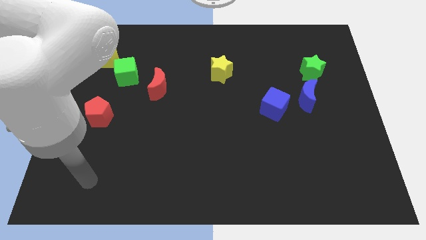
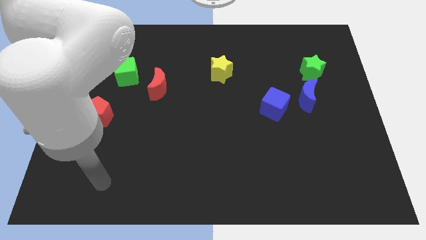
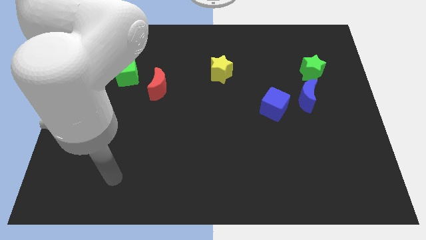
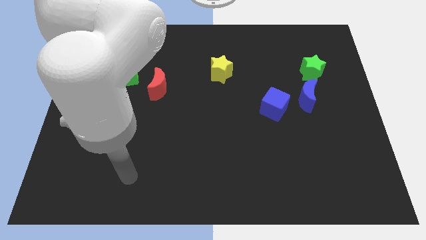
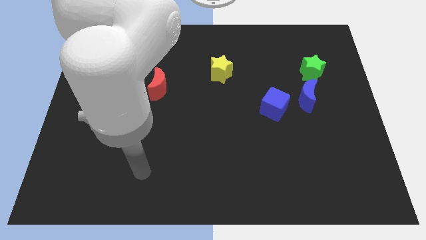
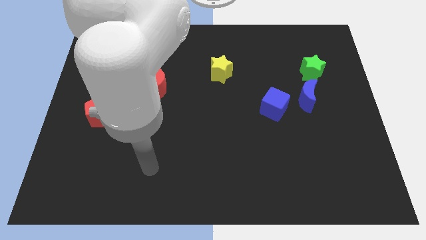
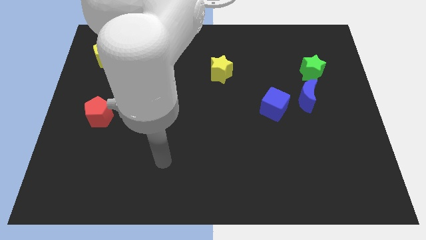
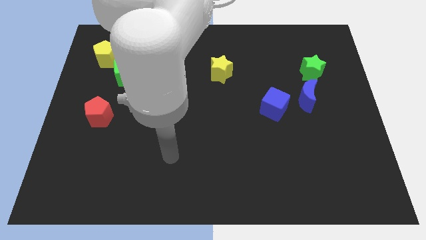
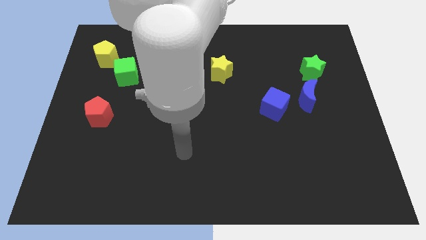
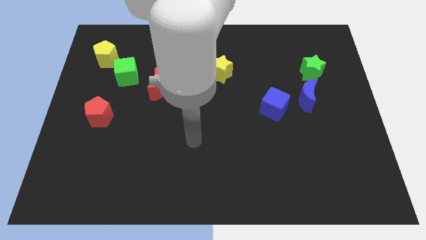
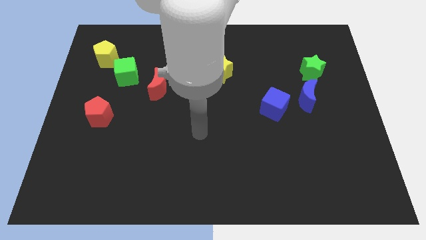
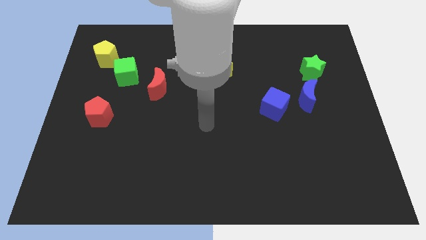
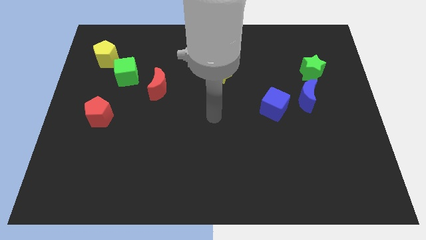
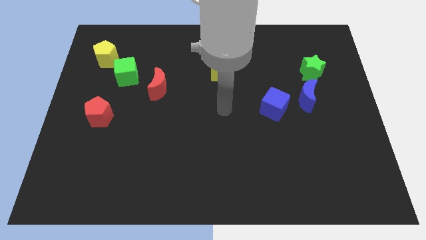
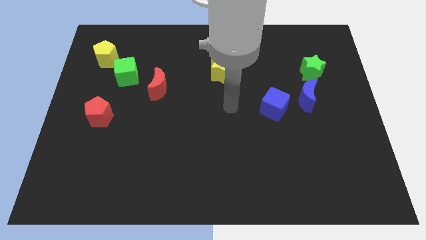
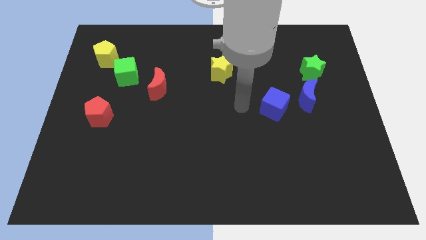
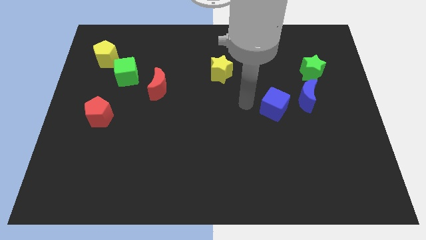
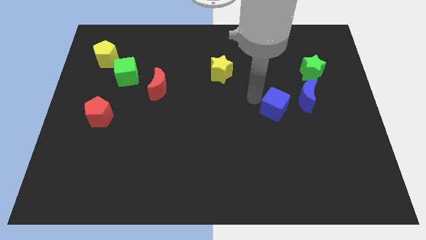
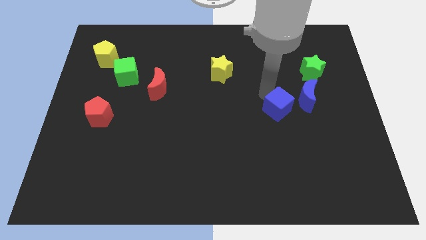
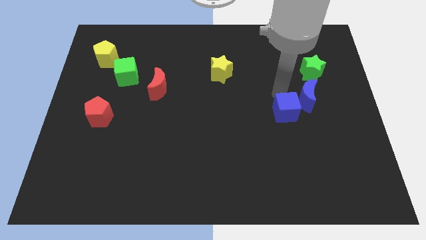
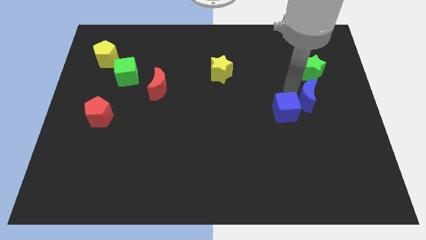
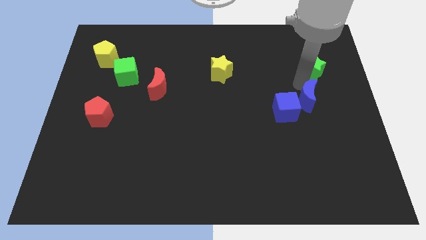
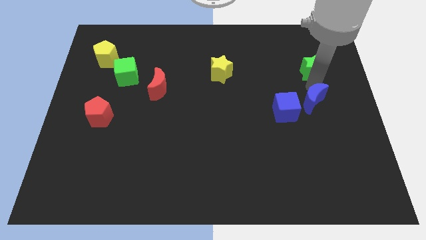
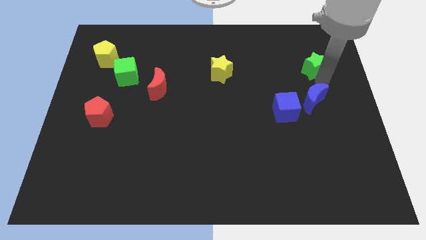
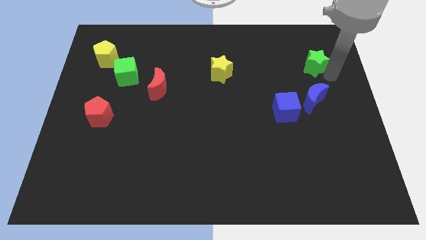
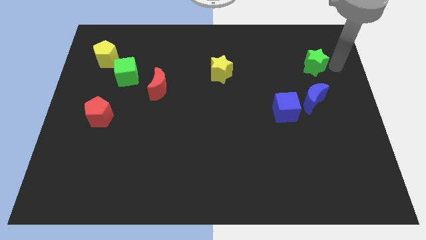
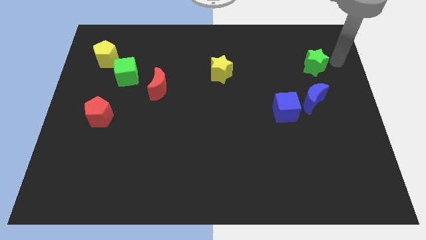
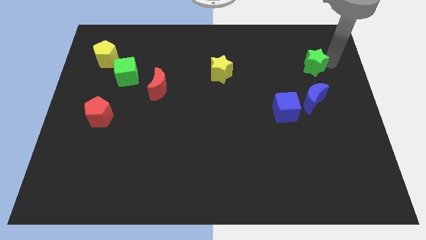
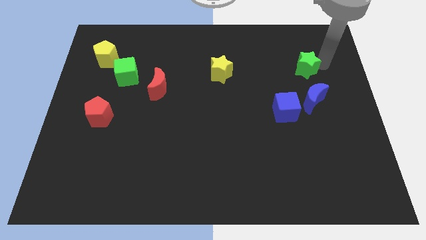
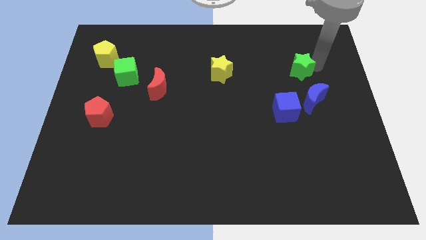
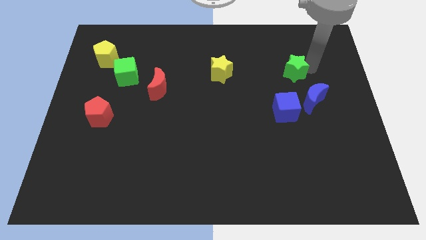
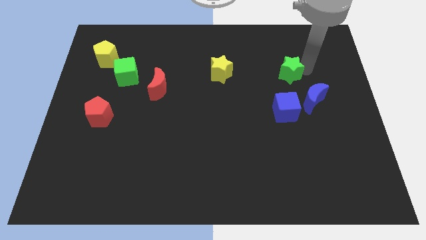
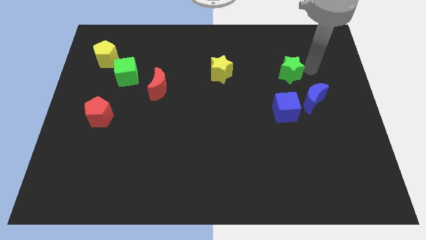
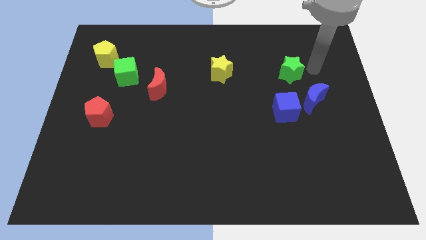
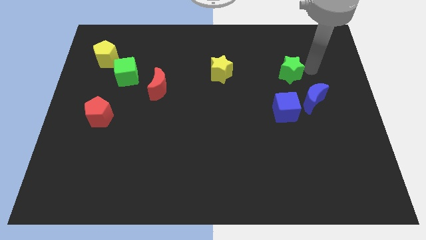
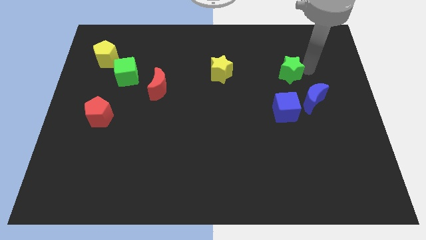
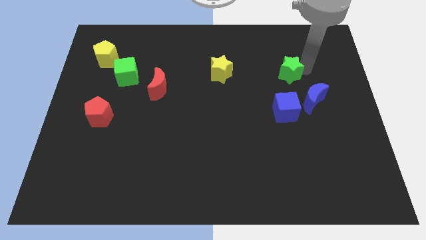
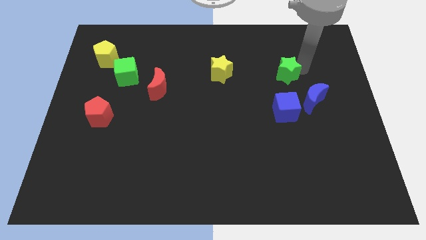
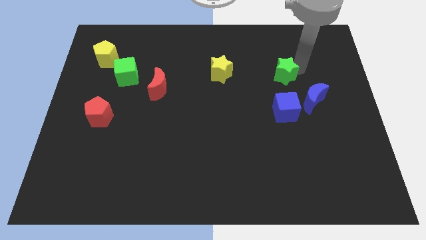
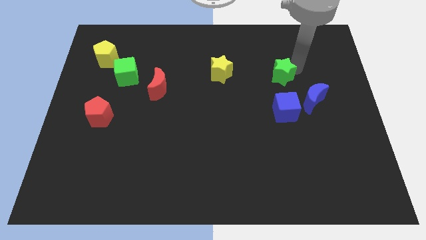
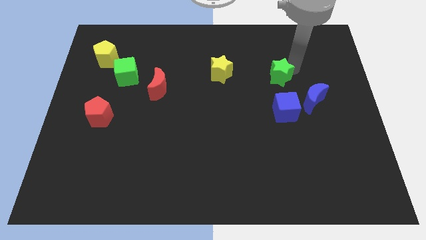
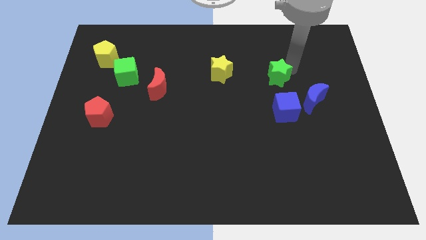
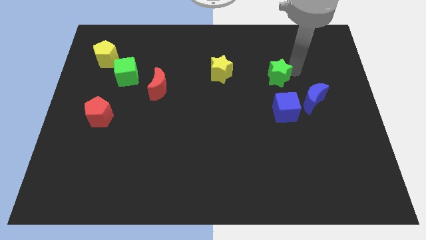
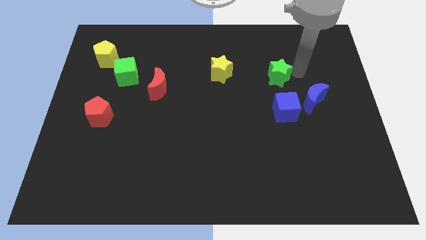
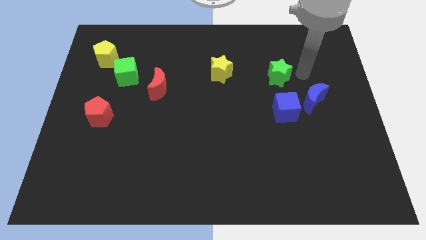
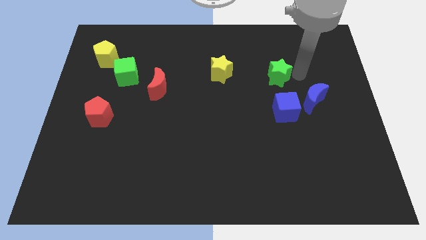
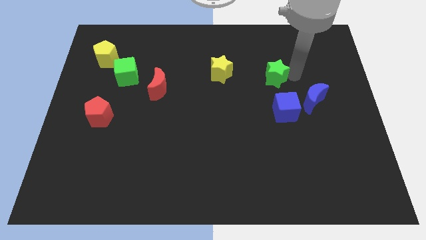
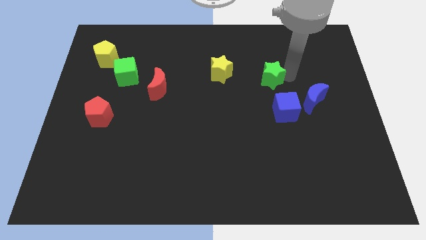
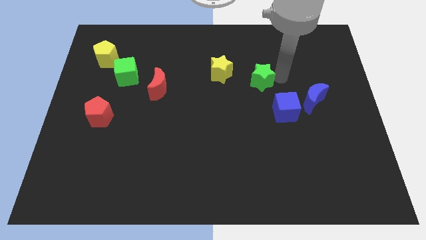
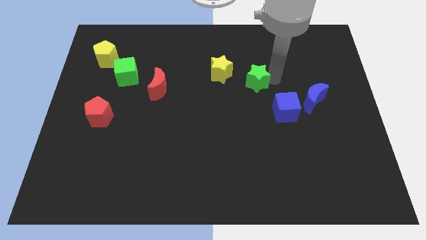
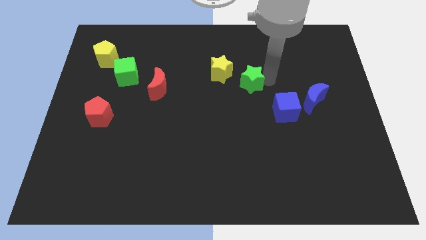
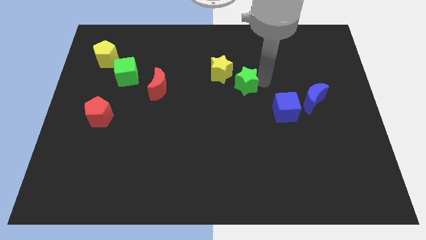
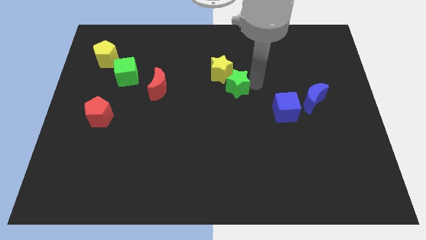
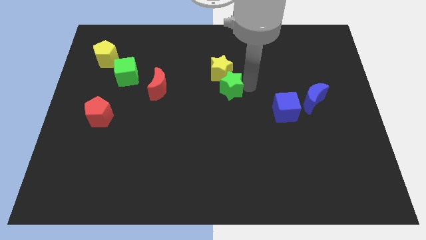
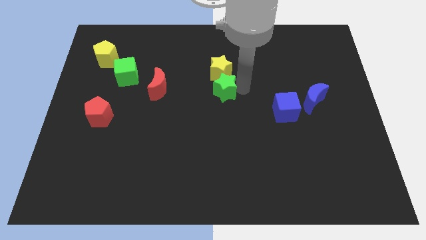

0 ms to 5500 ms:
move the green star to the left

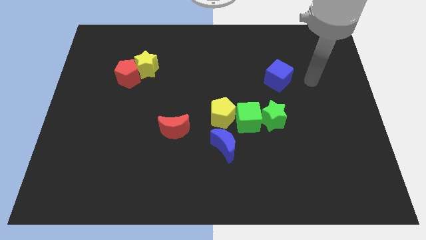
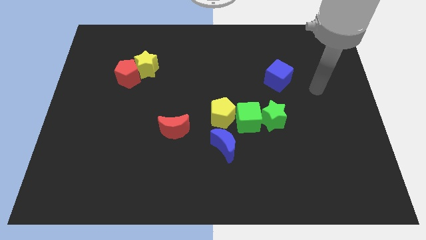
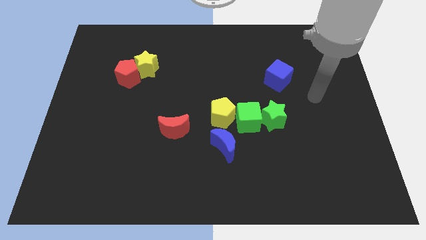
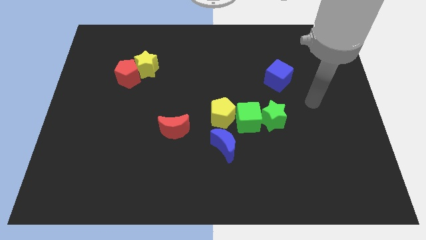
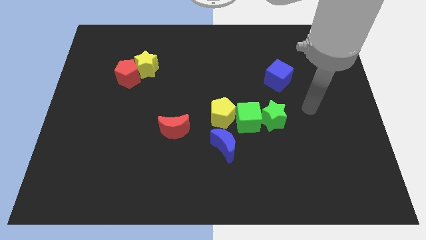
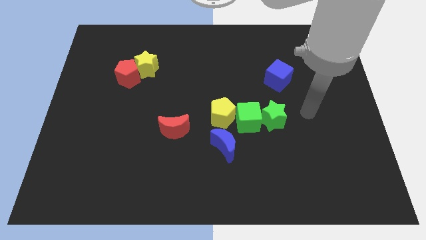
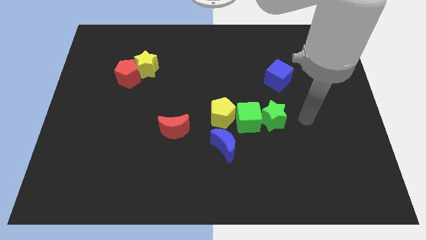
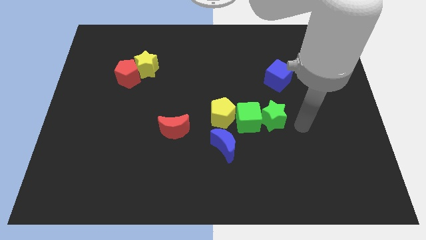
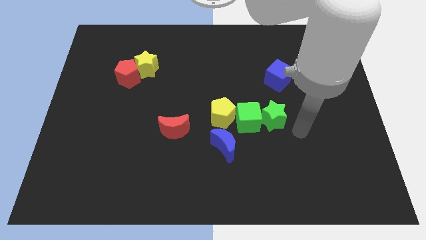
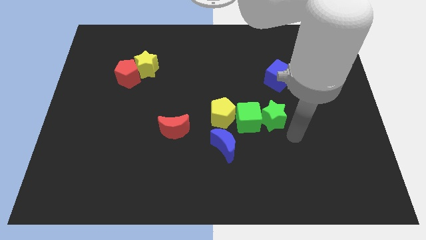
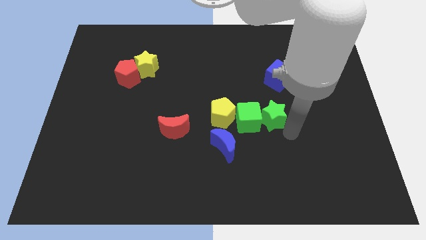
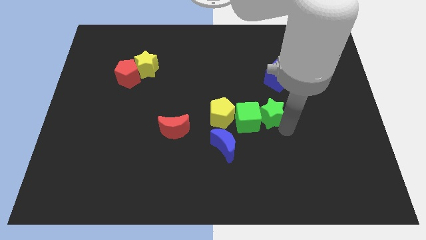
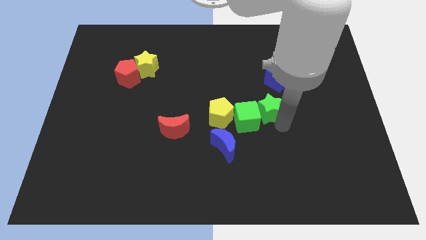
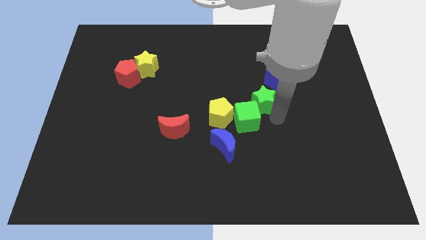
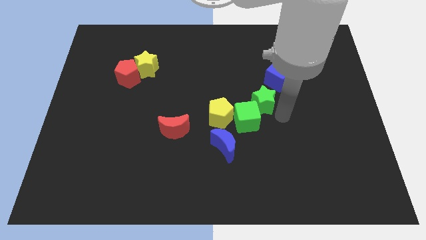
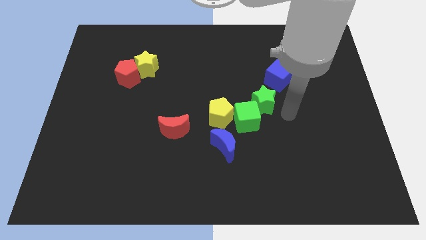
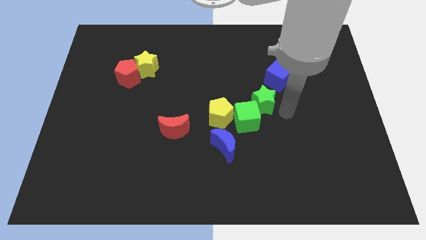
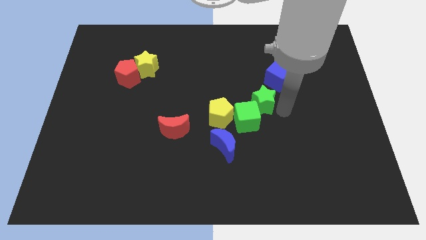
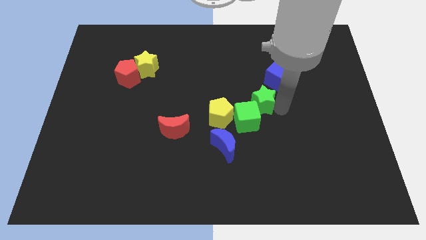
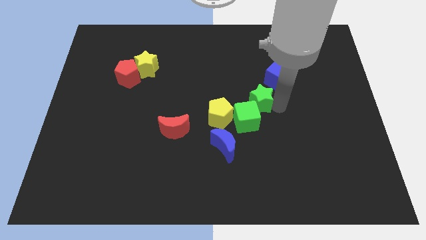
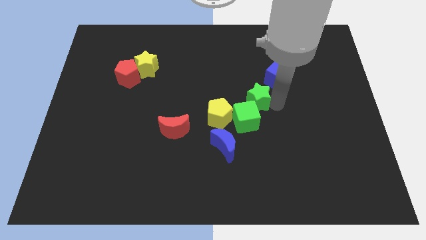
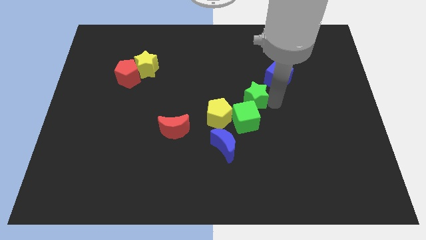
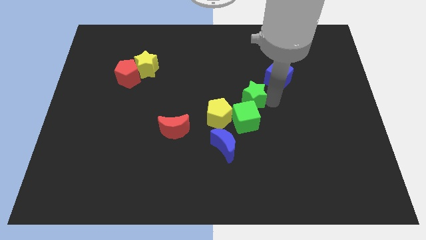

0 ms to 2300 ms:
move the green star up and then to the left slightly

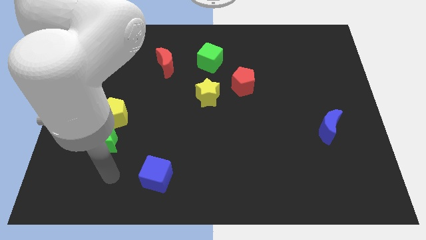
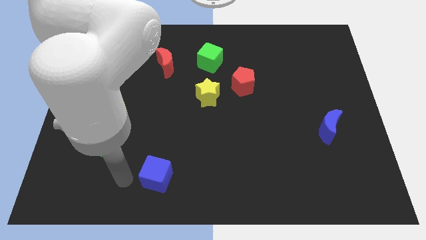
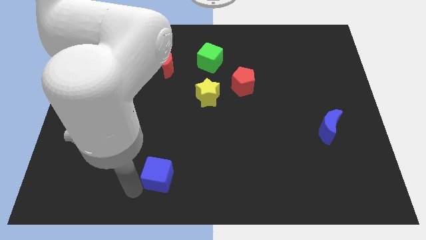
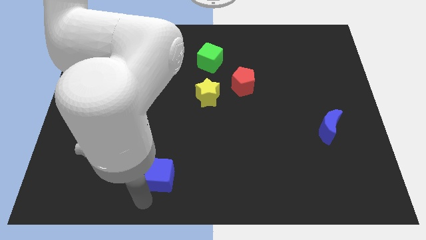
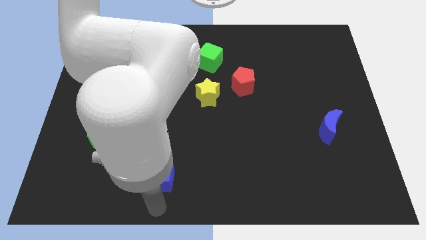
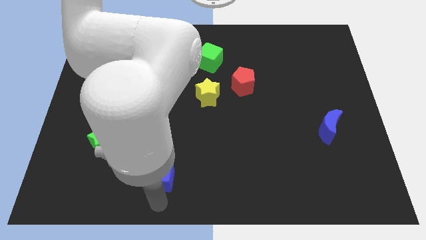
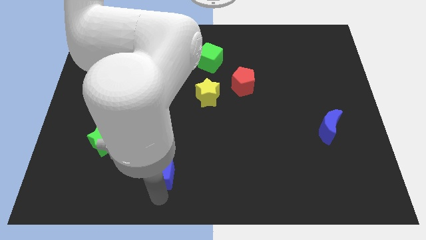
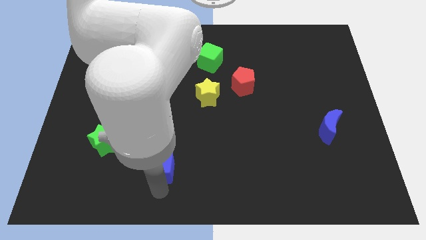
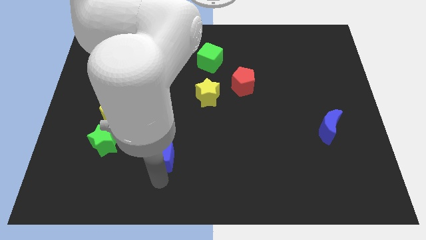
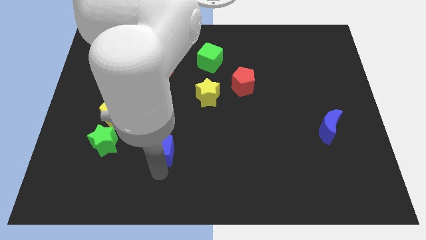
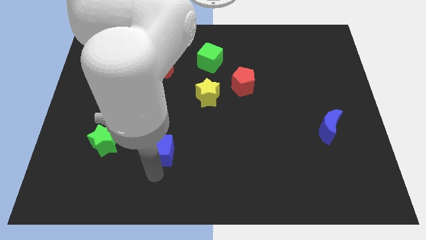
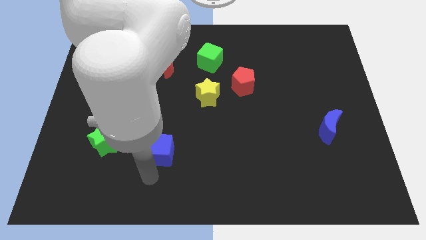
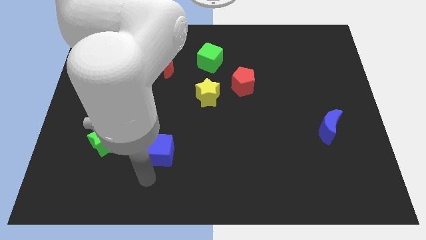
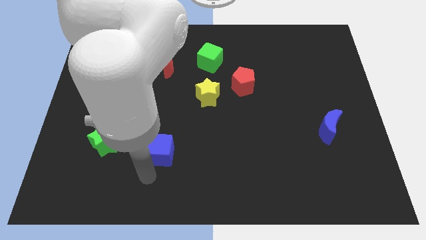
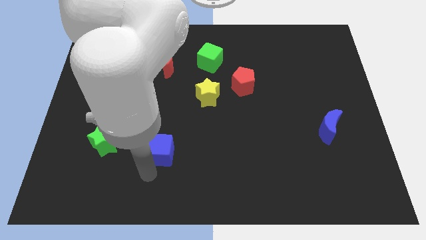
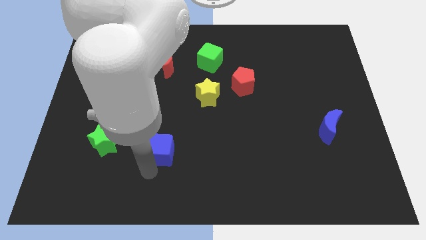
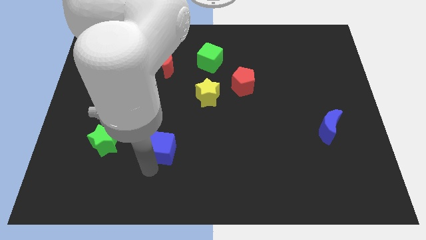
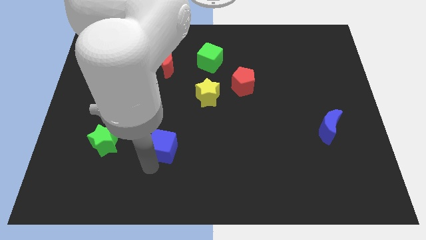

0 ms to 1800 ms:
slightly move the blue cube up
